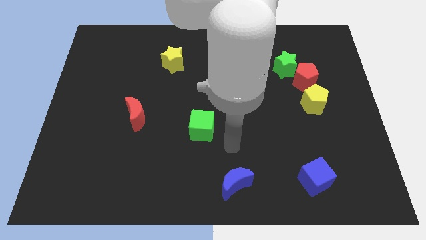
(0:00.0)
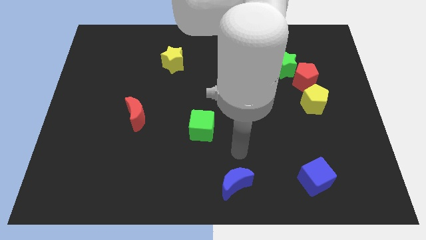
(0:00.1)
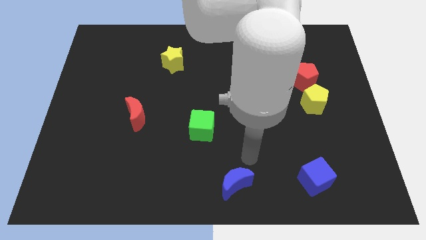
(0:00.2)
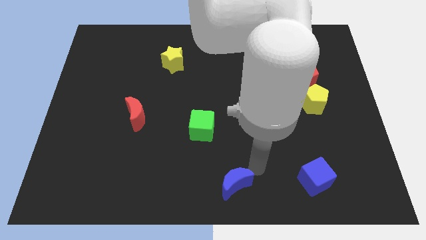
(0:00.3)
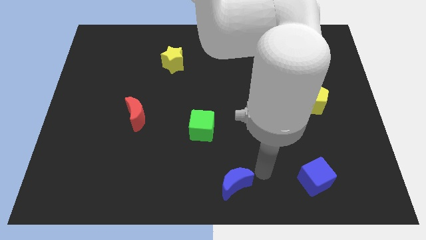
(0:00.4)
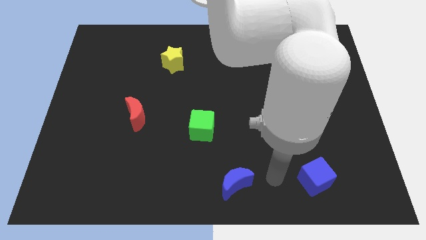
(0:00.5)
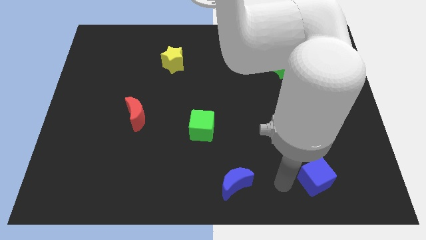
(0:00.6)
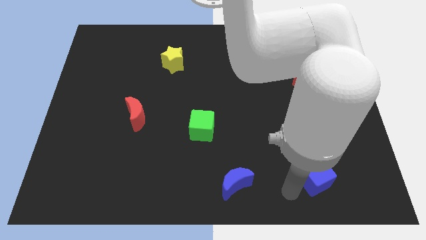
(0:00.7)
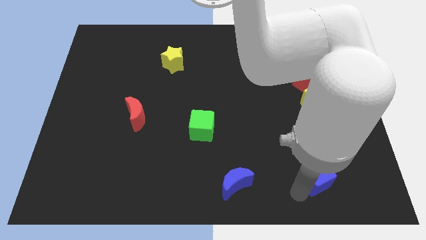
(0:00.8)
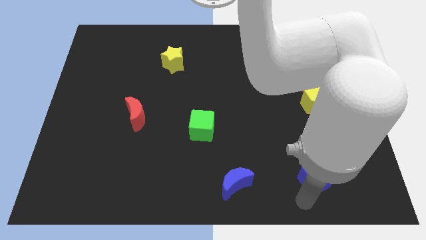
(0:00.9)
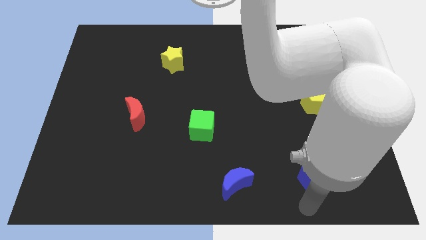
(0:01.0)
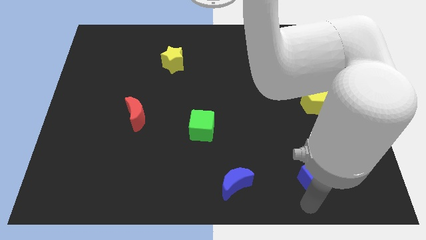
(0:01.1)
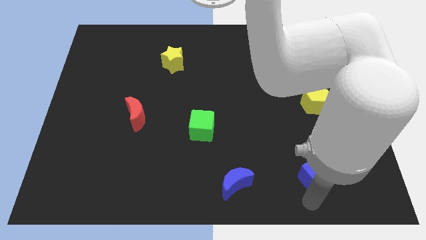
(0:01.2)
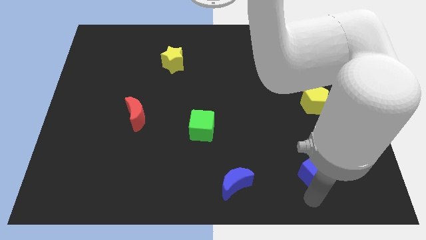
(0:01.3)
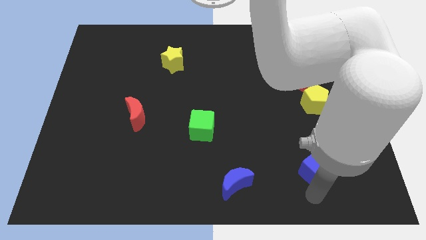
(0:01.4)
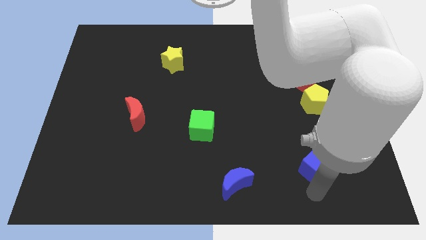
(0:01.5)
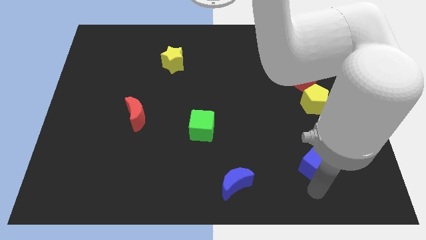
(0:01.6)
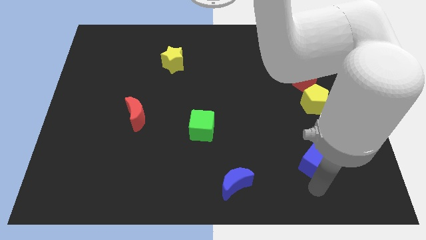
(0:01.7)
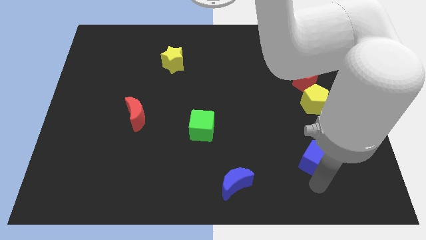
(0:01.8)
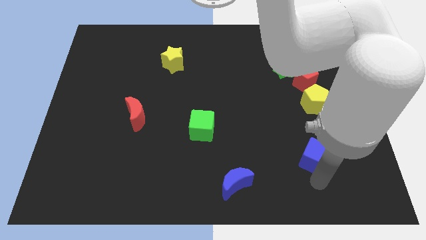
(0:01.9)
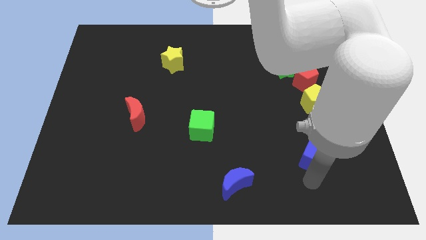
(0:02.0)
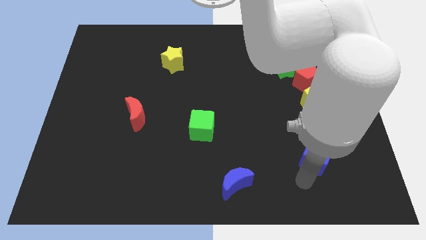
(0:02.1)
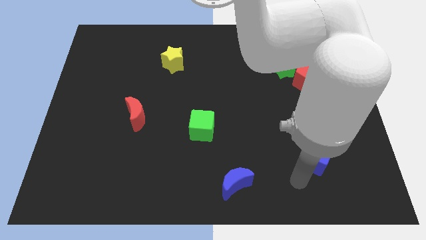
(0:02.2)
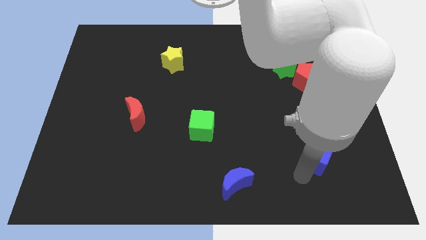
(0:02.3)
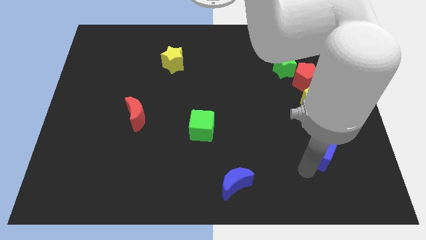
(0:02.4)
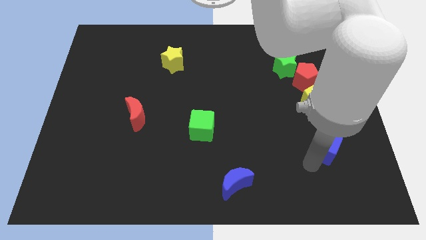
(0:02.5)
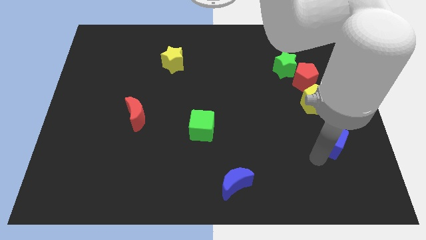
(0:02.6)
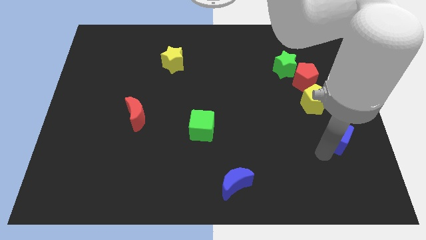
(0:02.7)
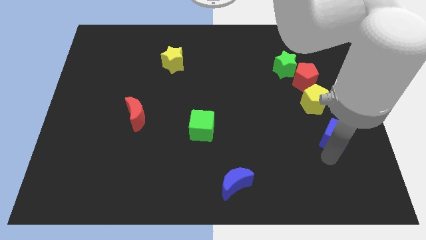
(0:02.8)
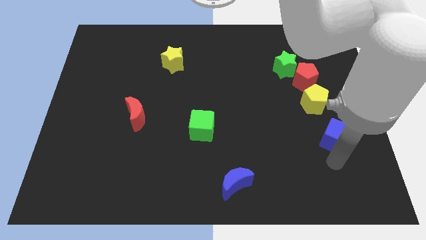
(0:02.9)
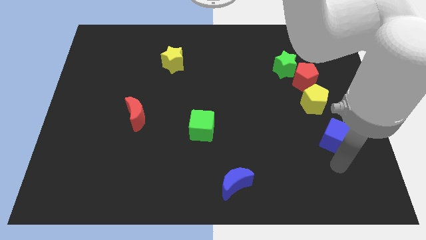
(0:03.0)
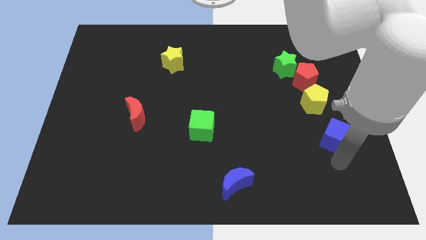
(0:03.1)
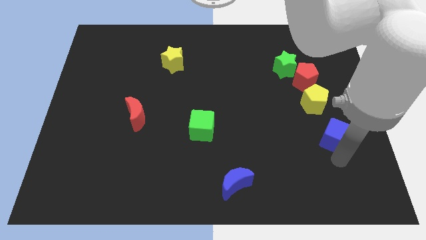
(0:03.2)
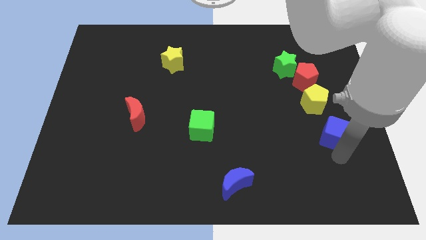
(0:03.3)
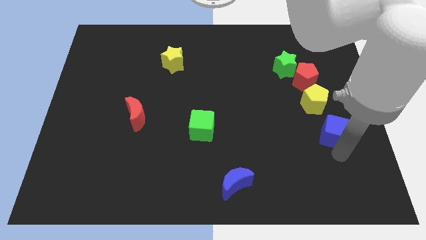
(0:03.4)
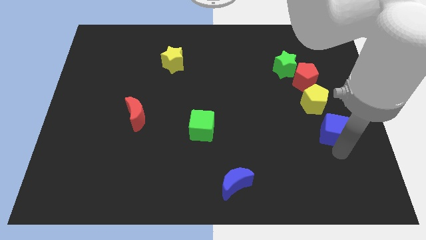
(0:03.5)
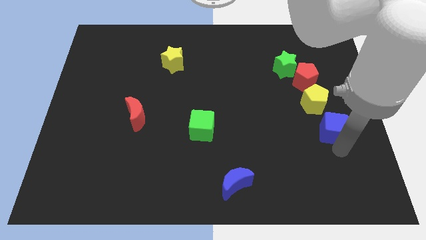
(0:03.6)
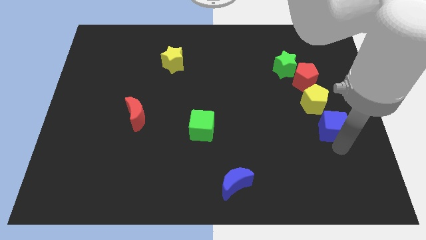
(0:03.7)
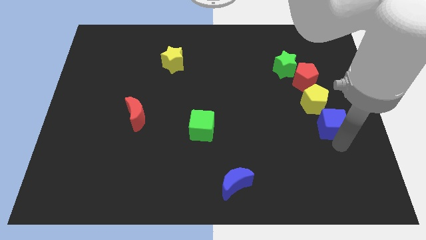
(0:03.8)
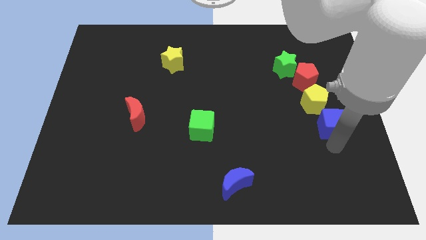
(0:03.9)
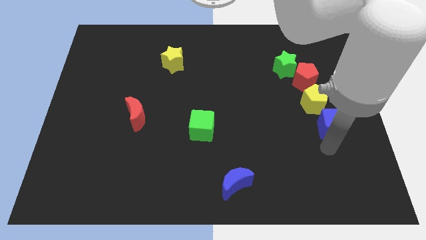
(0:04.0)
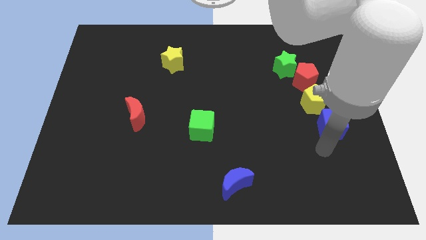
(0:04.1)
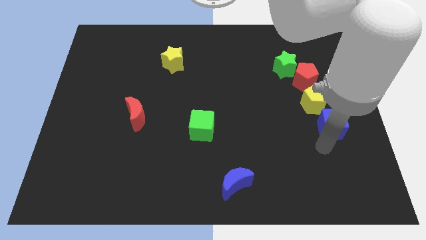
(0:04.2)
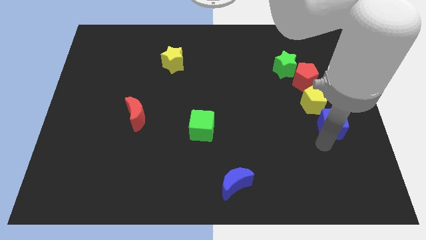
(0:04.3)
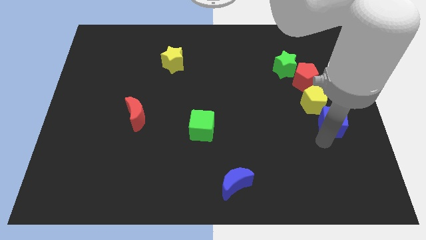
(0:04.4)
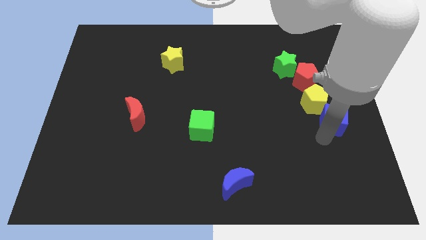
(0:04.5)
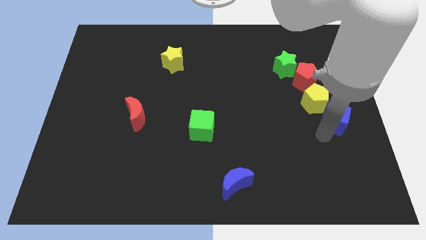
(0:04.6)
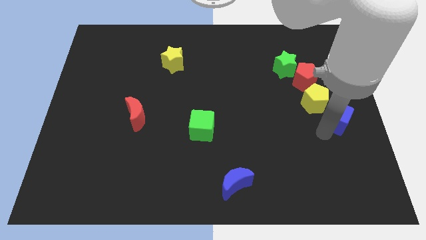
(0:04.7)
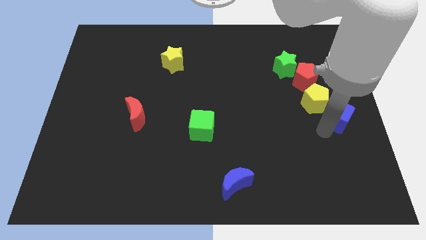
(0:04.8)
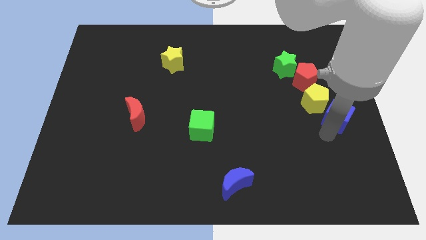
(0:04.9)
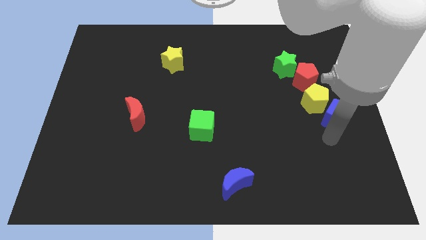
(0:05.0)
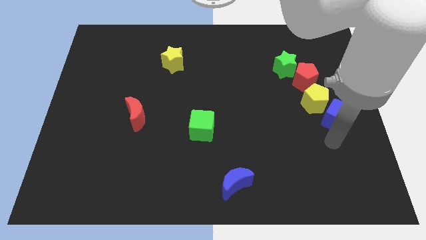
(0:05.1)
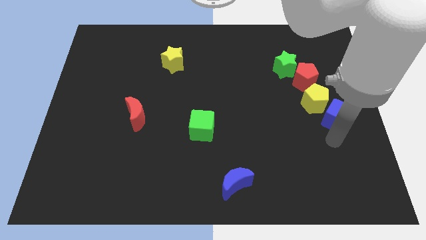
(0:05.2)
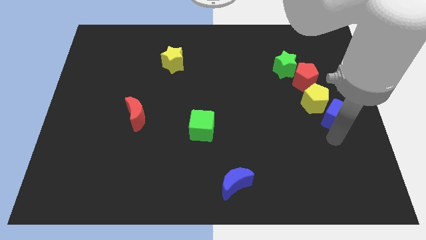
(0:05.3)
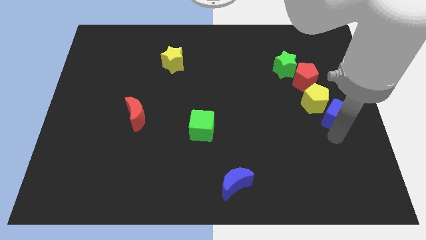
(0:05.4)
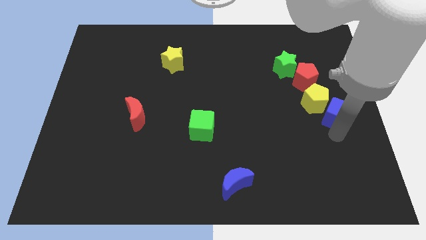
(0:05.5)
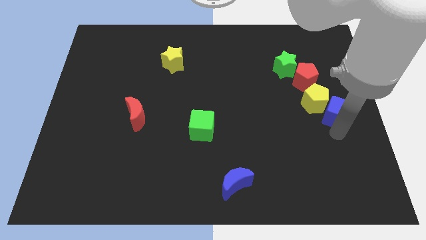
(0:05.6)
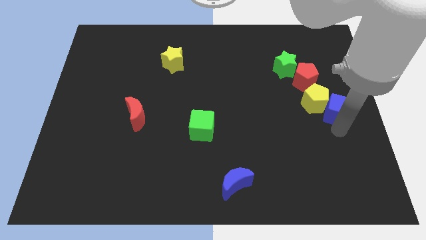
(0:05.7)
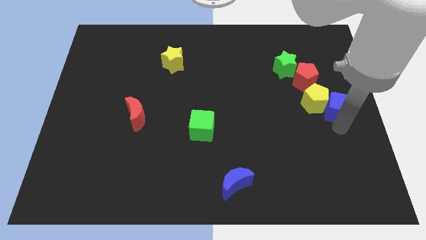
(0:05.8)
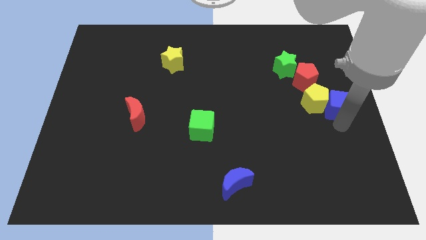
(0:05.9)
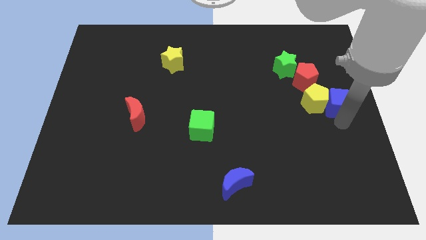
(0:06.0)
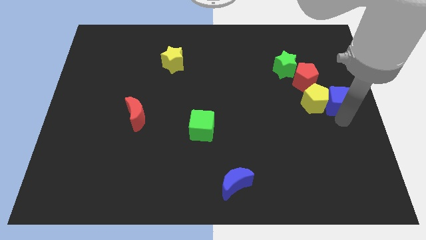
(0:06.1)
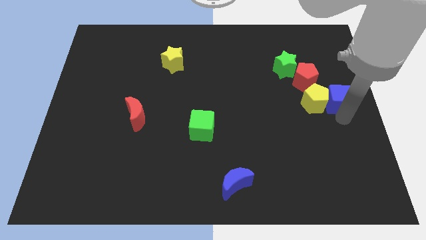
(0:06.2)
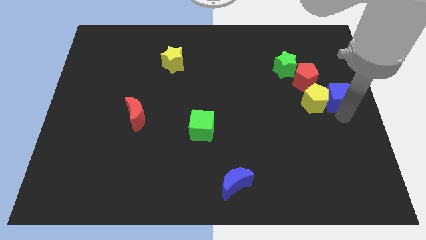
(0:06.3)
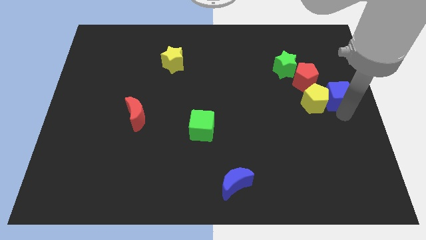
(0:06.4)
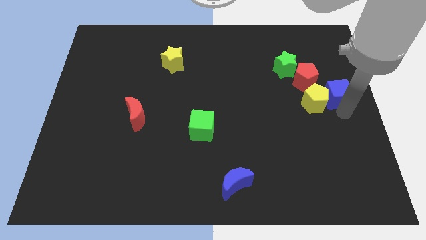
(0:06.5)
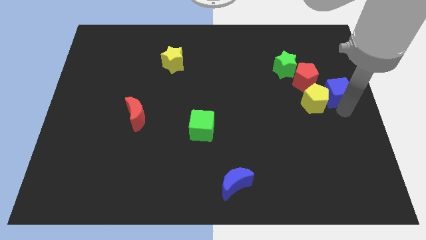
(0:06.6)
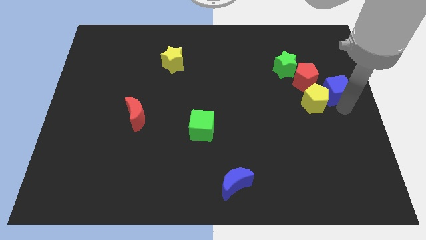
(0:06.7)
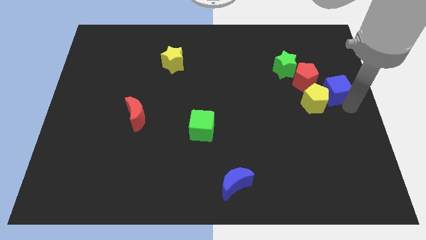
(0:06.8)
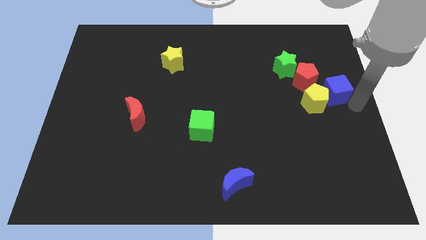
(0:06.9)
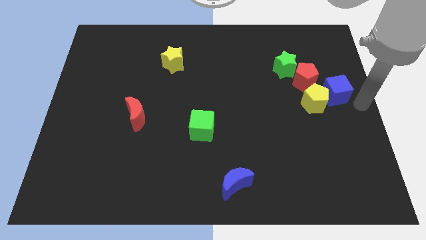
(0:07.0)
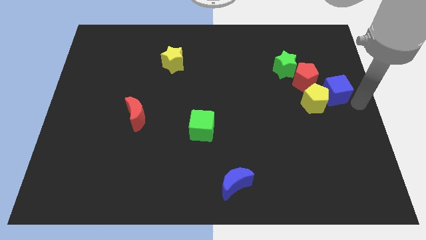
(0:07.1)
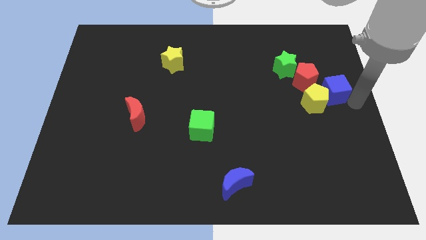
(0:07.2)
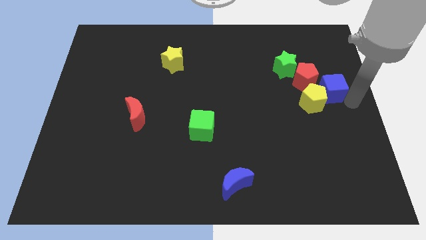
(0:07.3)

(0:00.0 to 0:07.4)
move the blue cube to the bottom right side of the green star
